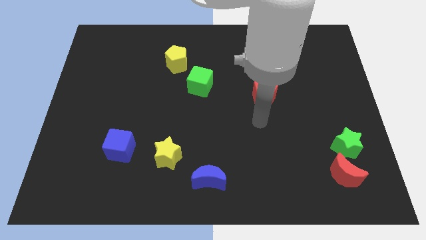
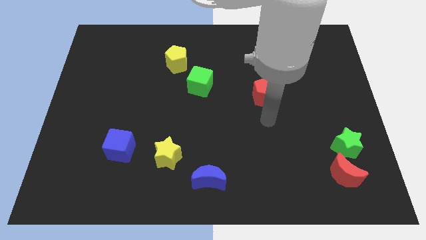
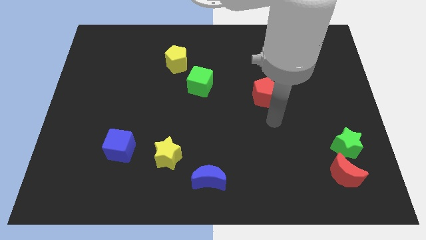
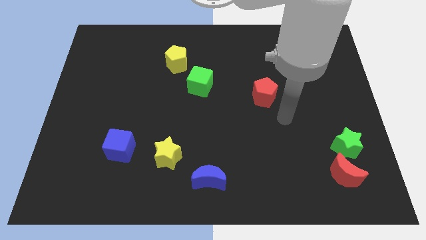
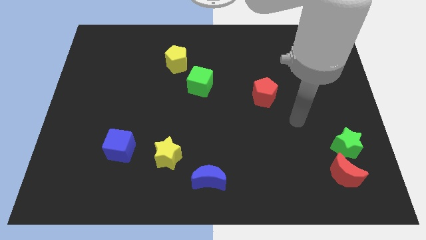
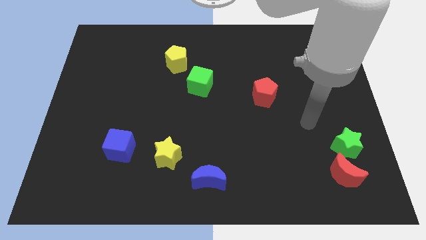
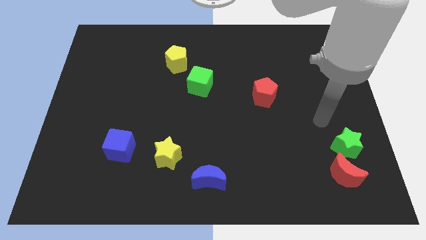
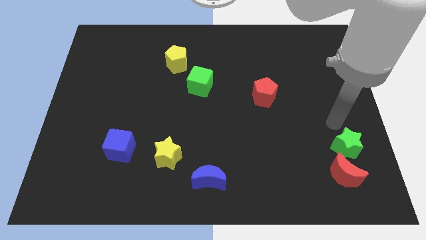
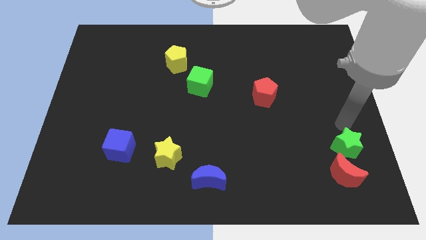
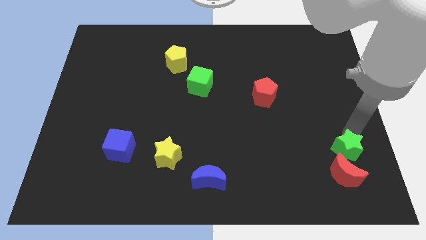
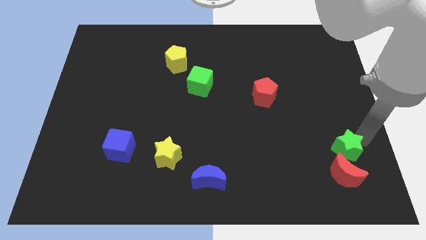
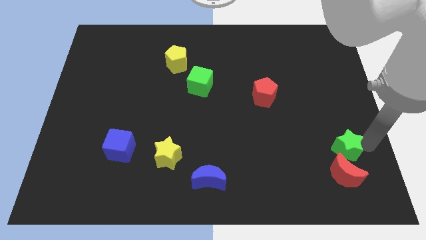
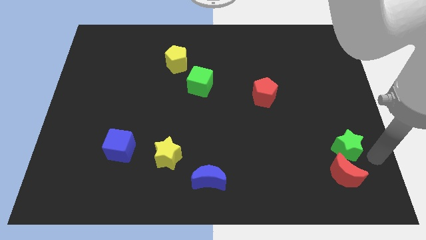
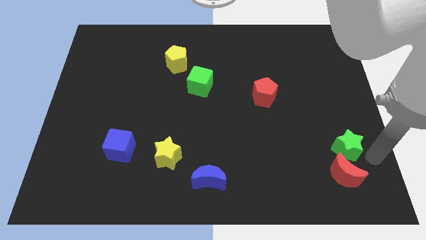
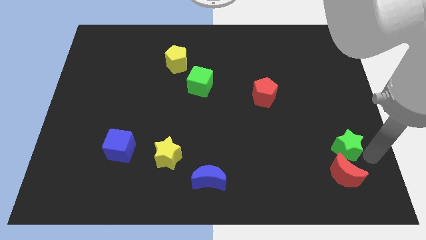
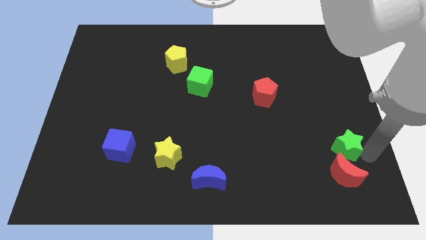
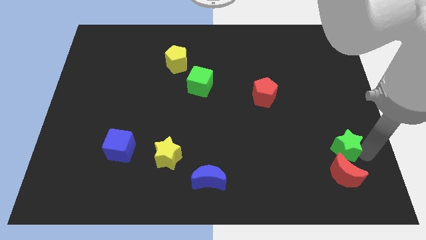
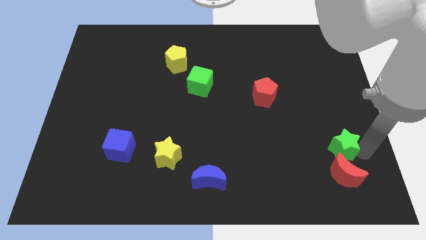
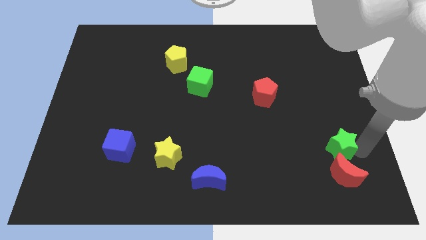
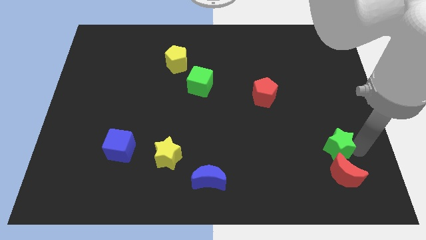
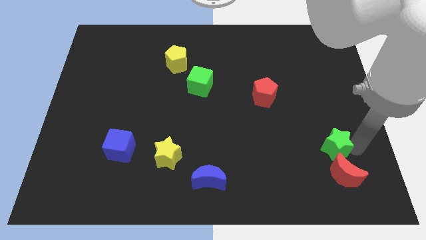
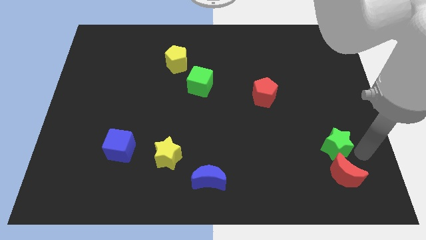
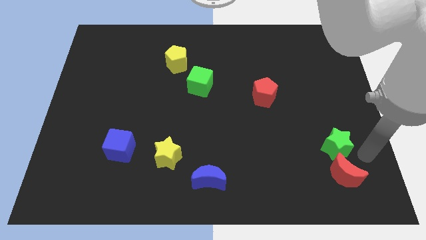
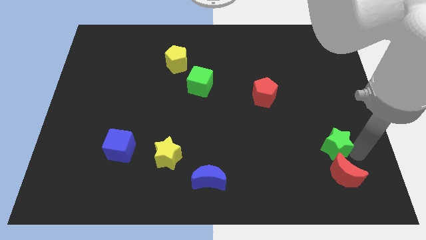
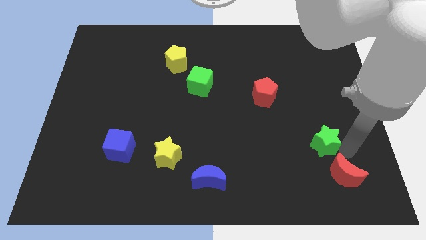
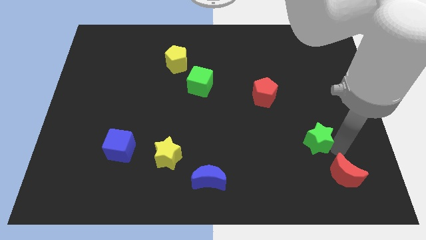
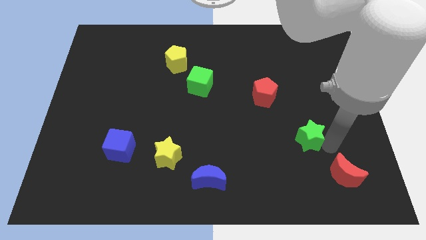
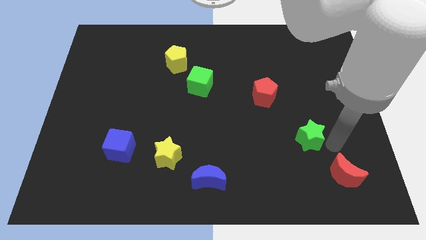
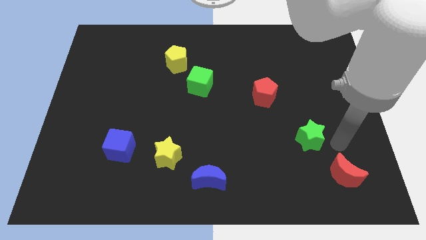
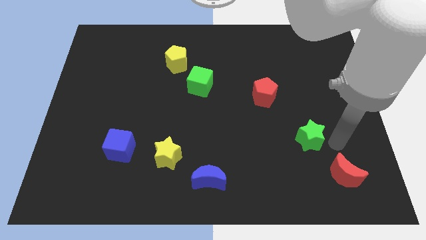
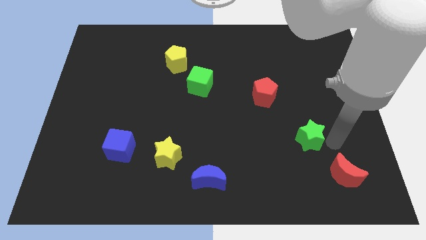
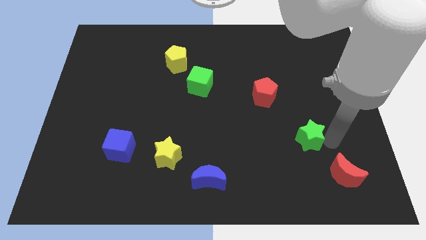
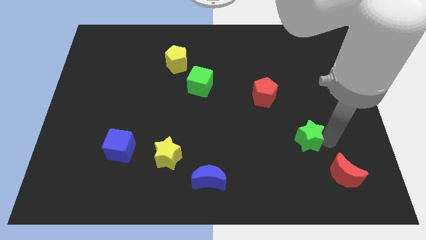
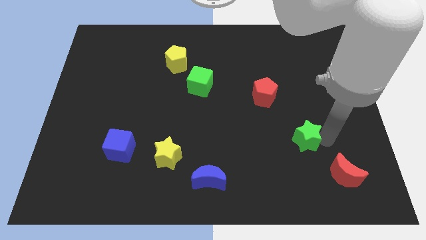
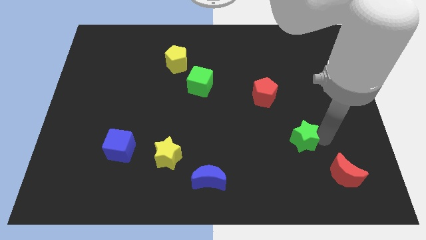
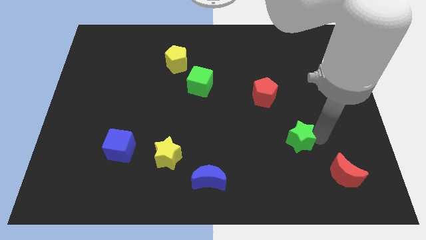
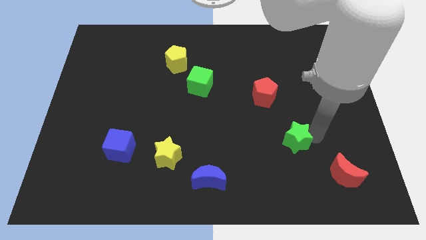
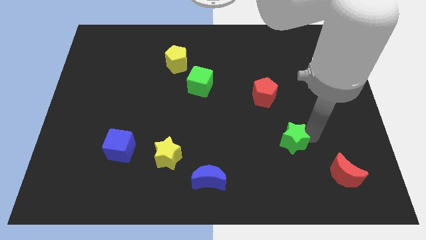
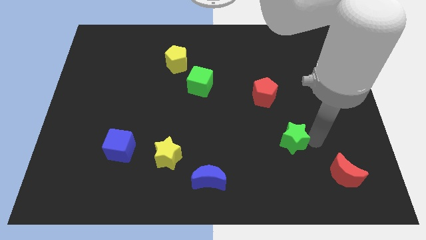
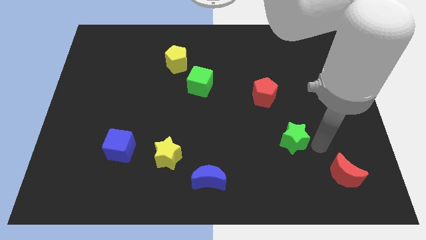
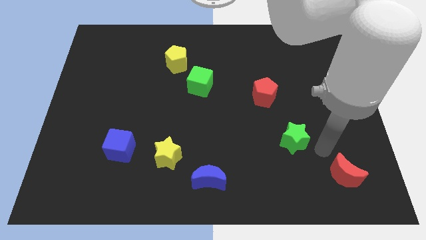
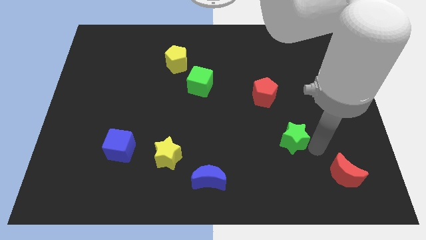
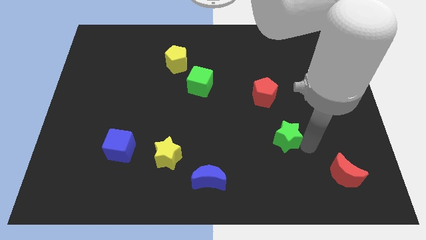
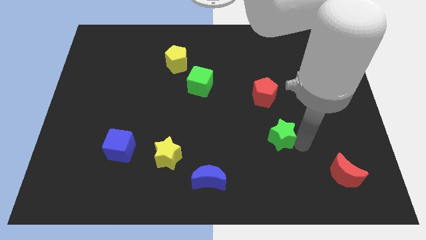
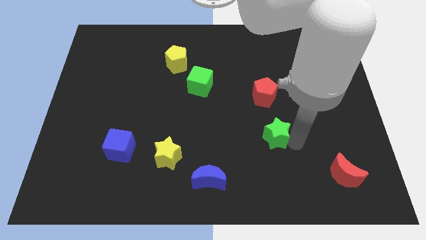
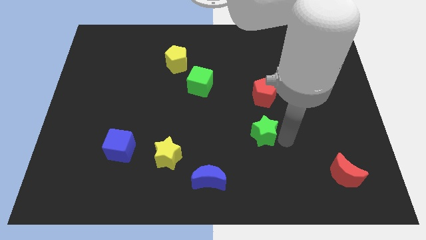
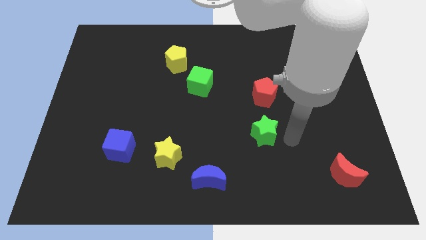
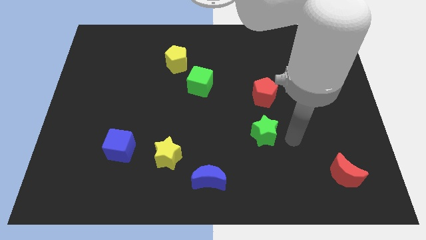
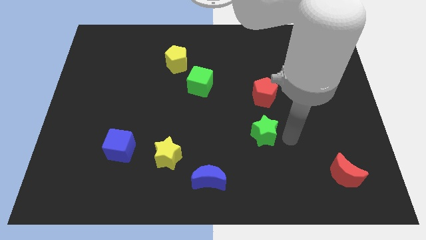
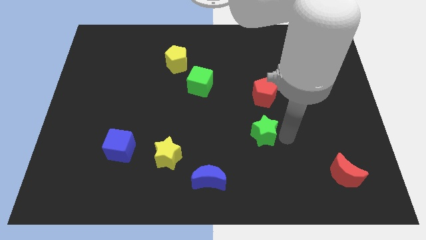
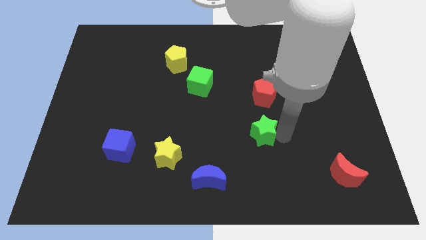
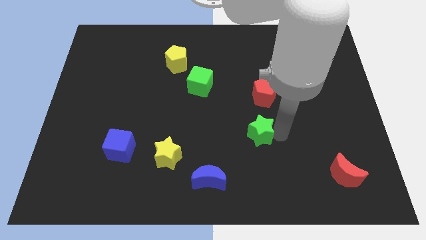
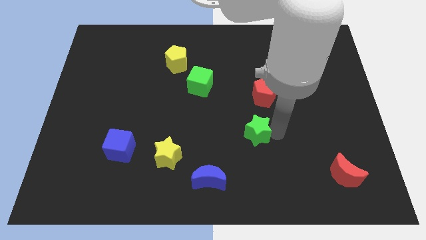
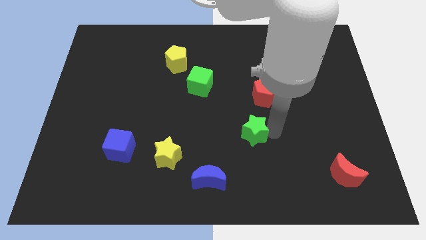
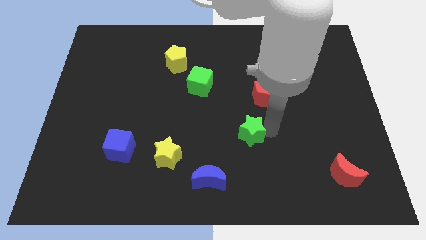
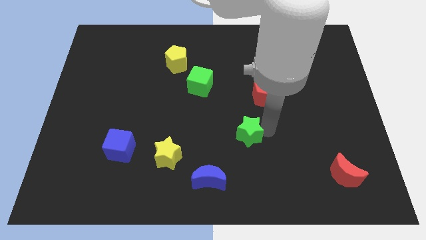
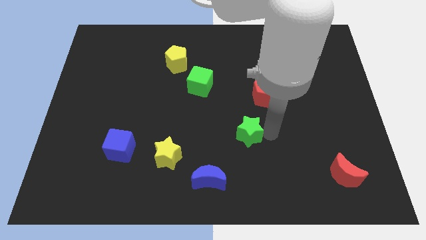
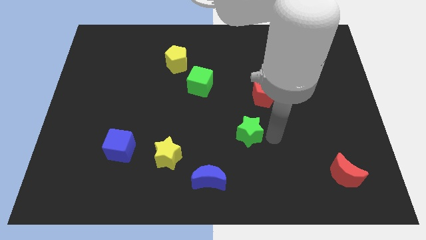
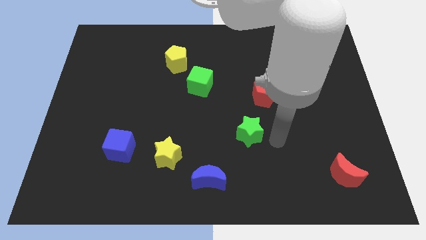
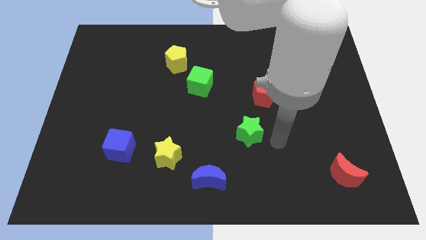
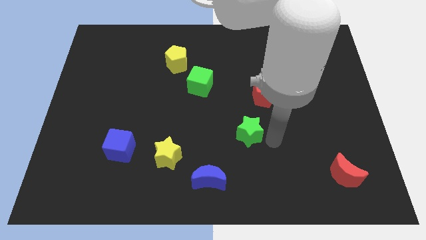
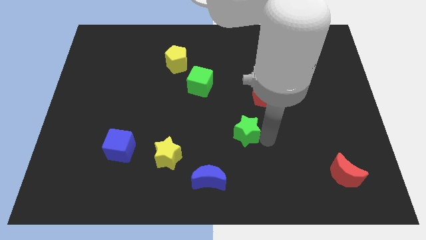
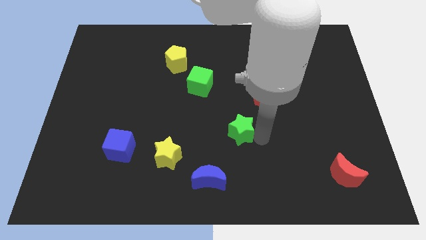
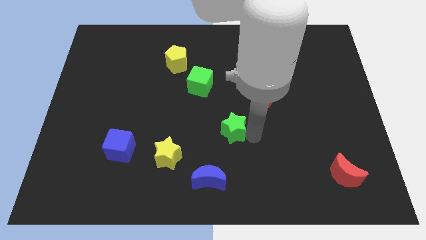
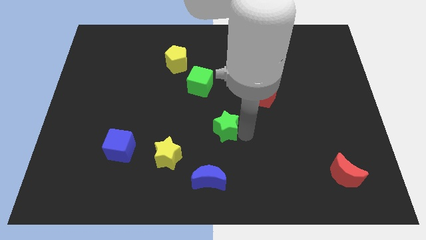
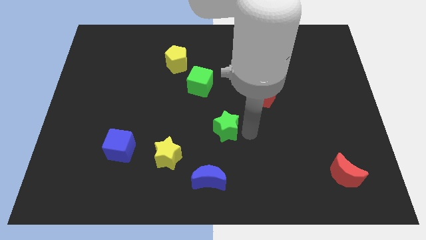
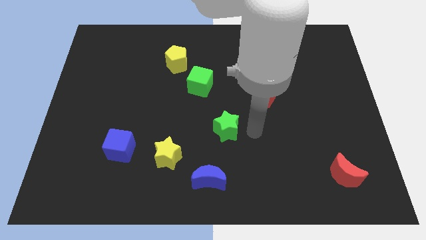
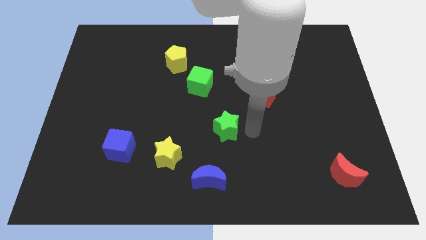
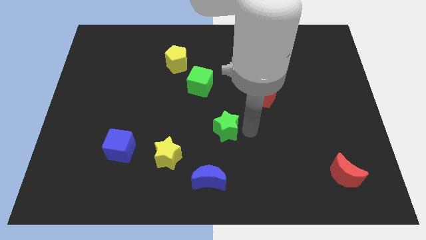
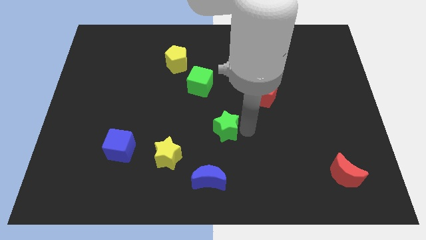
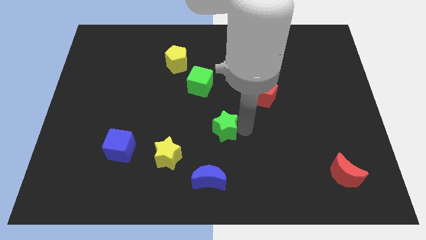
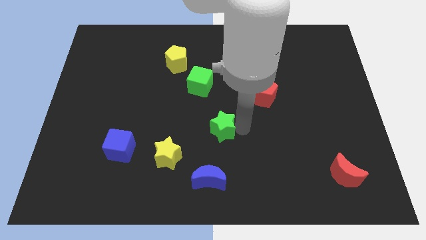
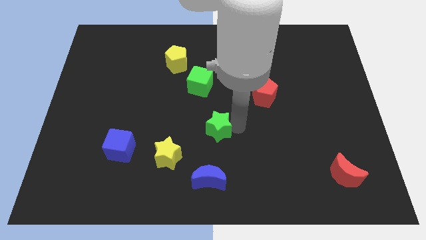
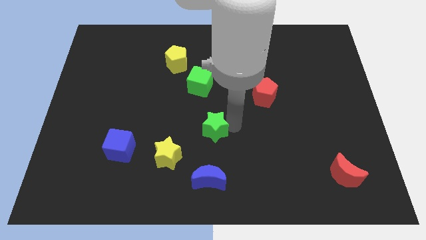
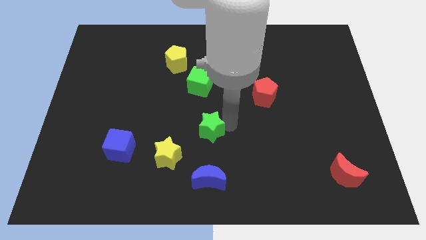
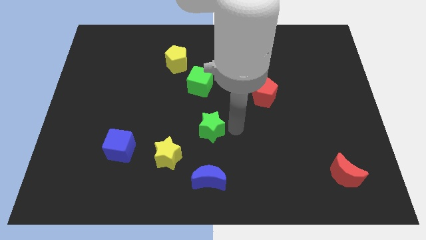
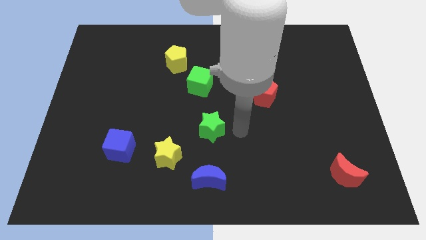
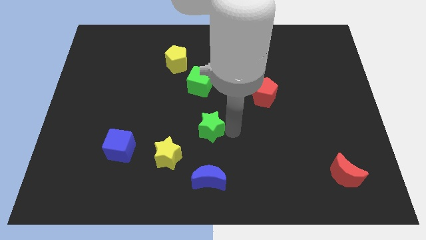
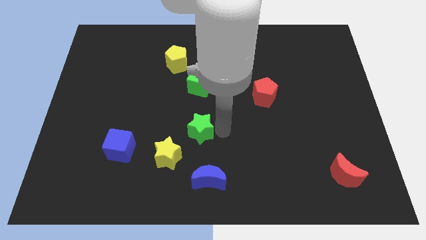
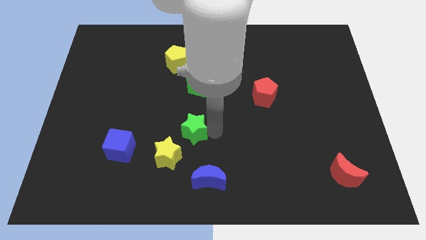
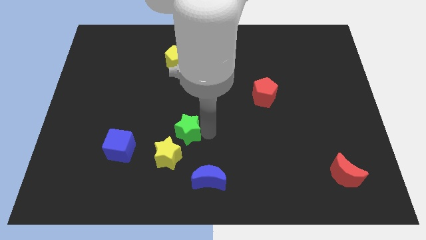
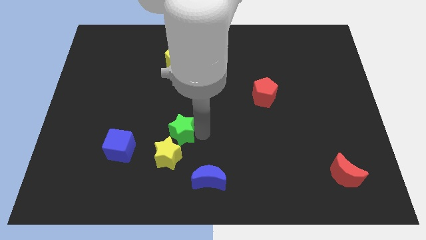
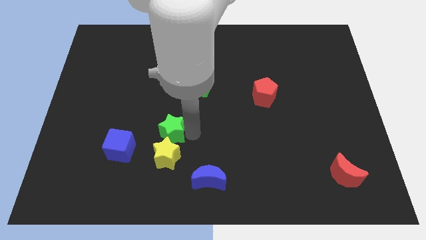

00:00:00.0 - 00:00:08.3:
move the green star to the top left side of the yellow star
